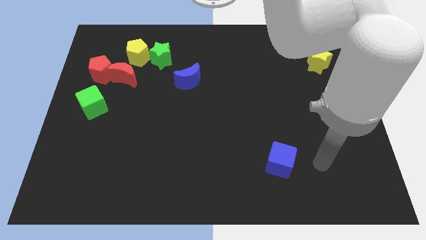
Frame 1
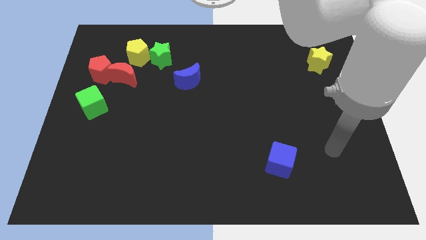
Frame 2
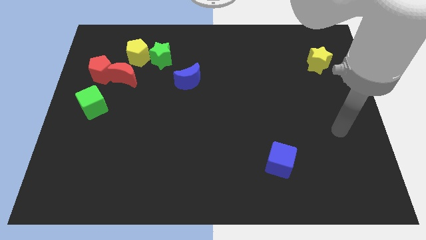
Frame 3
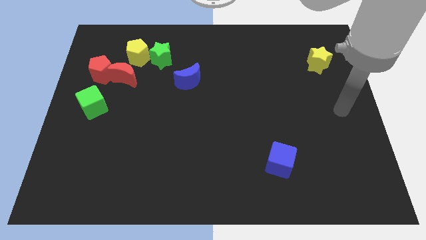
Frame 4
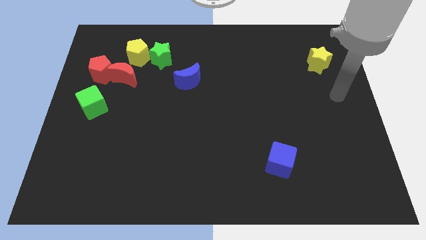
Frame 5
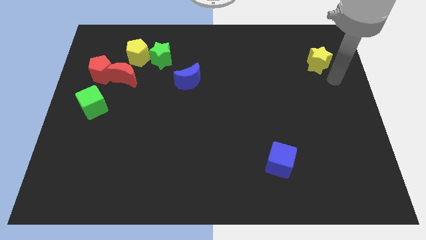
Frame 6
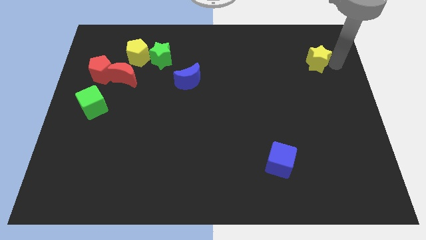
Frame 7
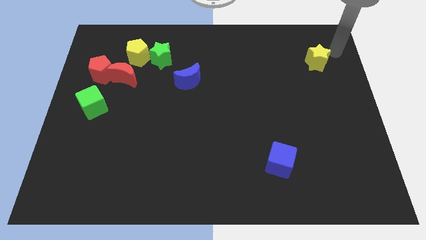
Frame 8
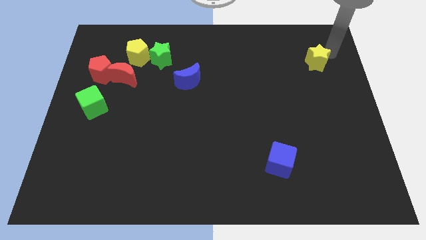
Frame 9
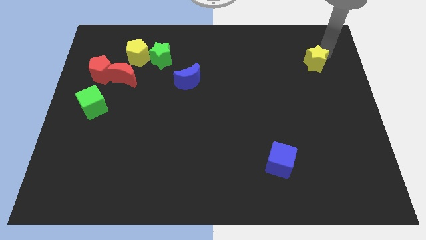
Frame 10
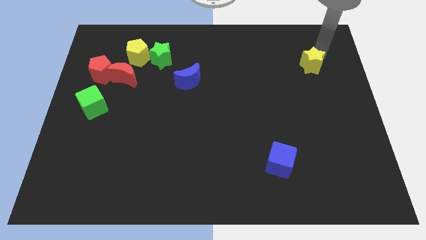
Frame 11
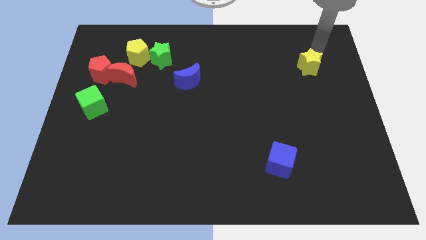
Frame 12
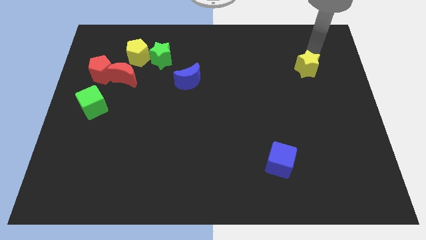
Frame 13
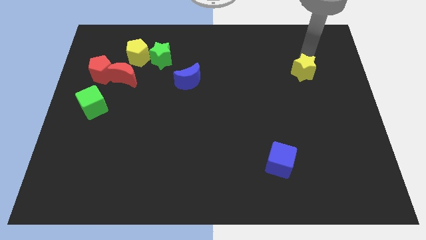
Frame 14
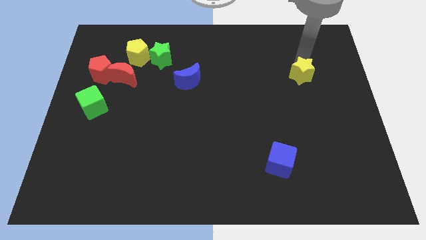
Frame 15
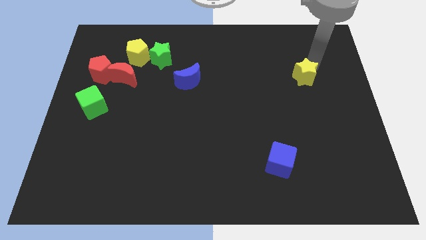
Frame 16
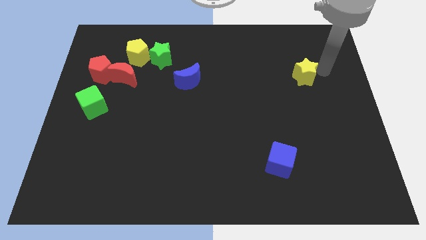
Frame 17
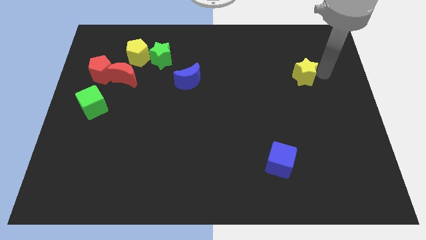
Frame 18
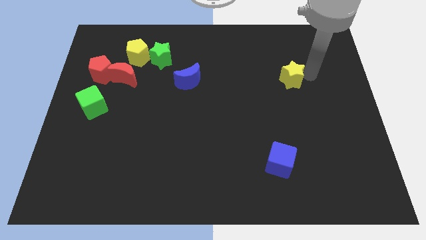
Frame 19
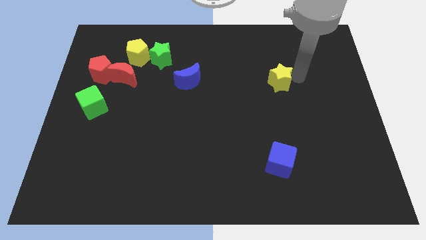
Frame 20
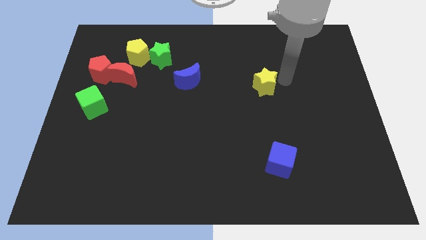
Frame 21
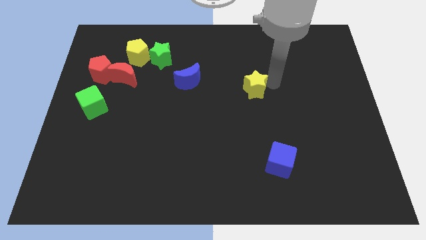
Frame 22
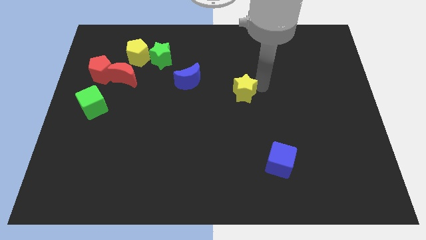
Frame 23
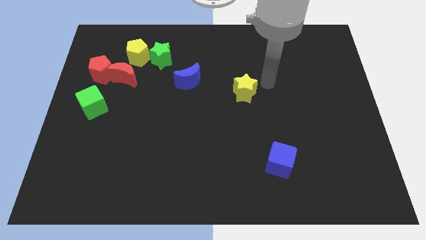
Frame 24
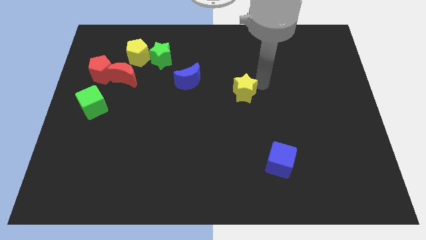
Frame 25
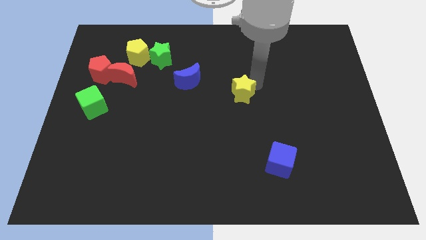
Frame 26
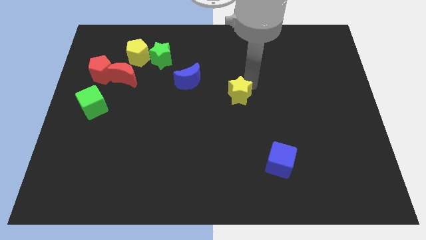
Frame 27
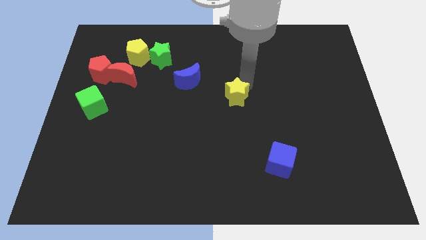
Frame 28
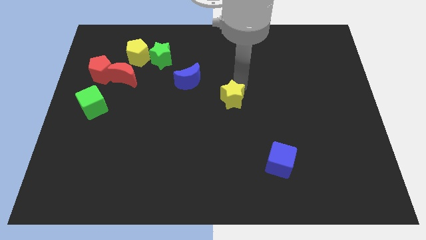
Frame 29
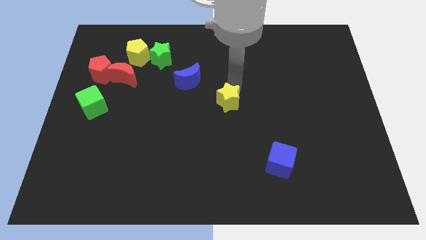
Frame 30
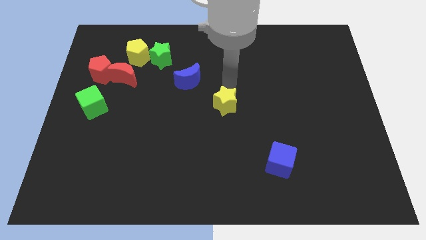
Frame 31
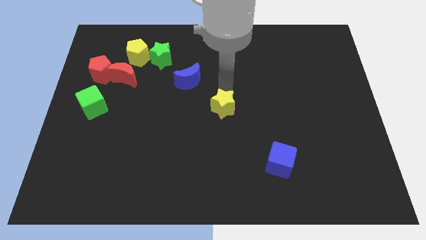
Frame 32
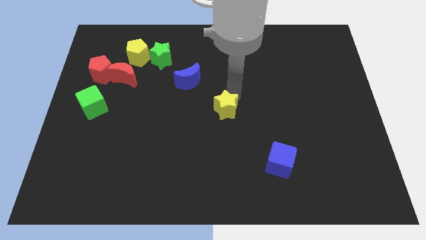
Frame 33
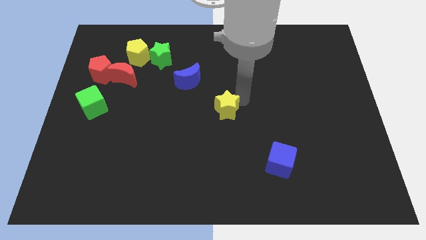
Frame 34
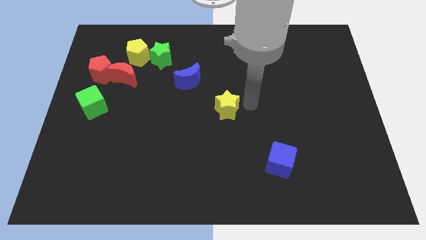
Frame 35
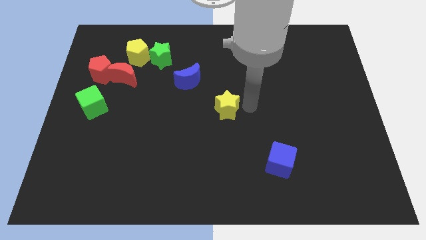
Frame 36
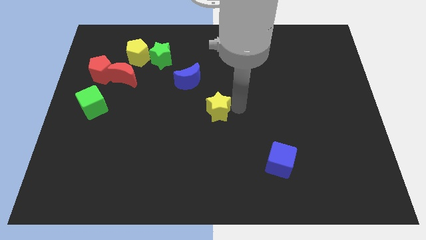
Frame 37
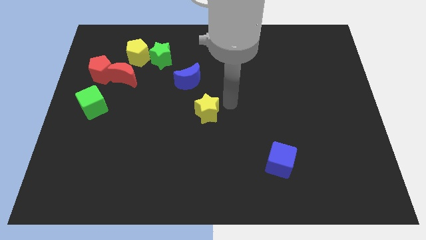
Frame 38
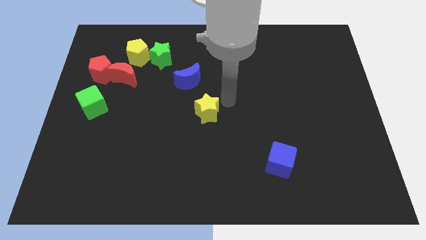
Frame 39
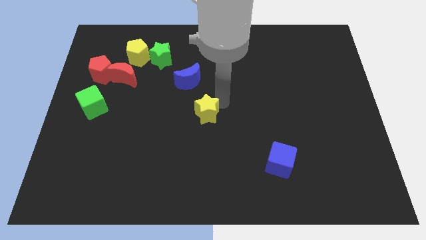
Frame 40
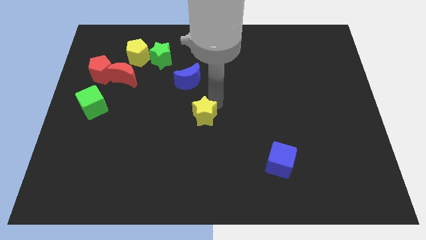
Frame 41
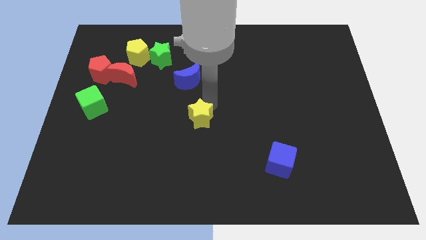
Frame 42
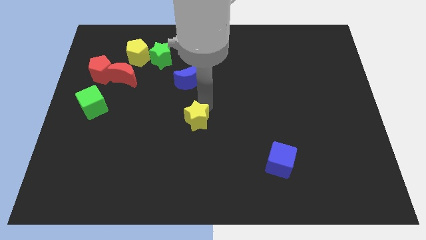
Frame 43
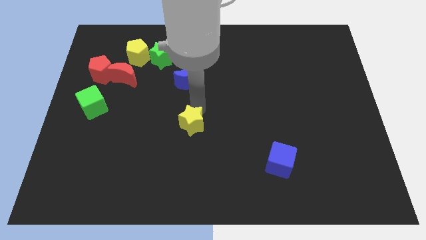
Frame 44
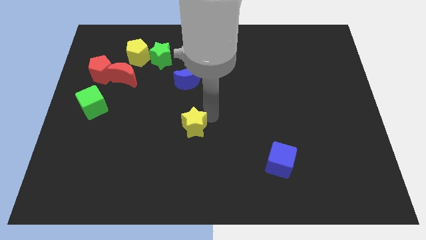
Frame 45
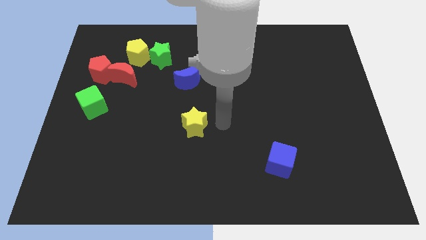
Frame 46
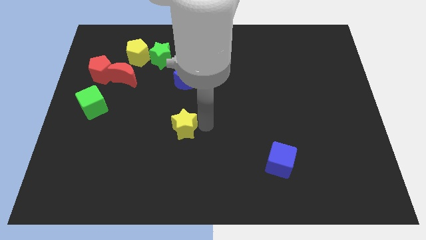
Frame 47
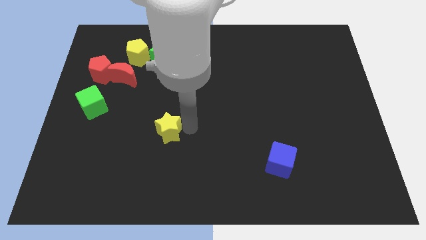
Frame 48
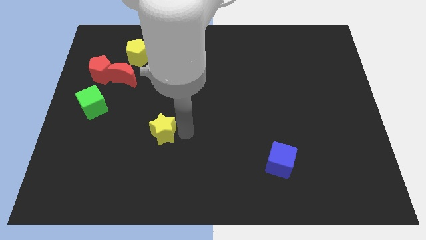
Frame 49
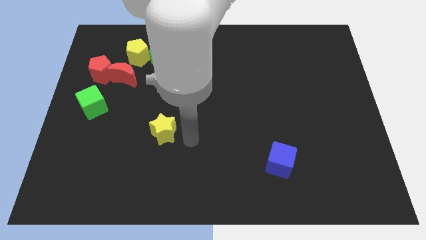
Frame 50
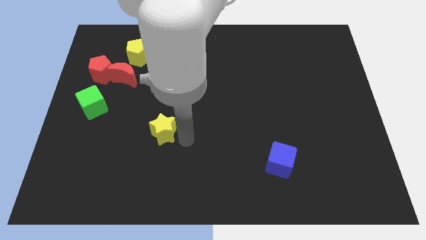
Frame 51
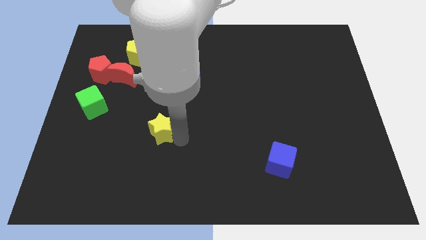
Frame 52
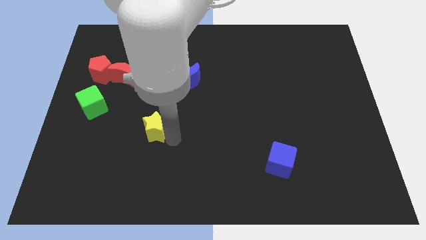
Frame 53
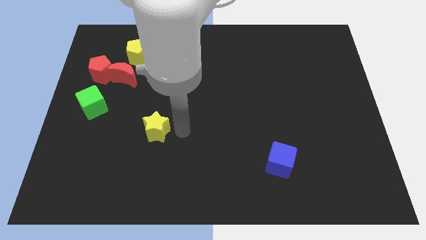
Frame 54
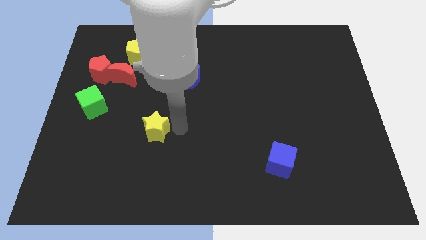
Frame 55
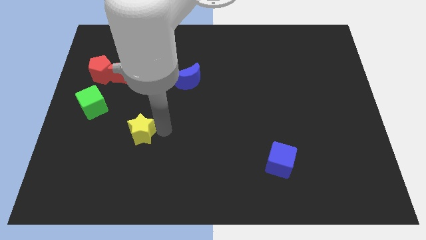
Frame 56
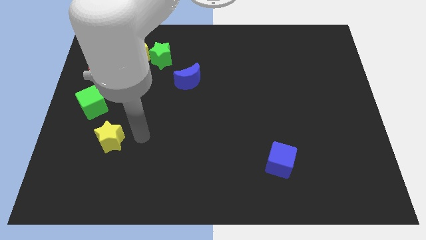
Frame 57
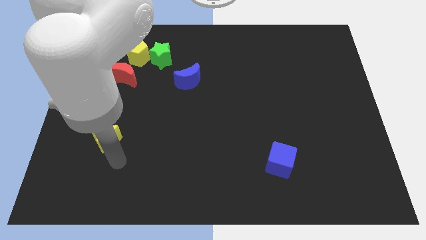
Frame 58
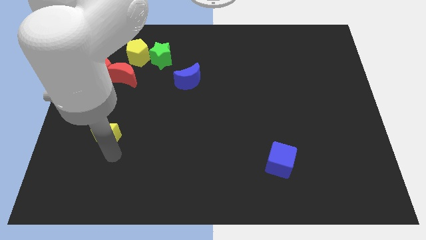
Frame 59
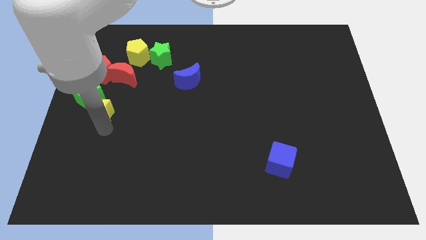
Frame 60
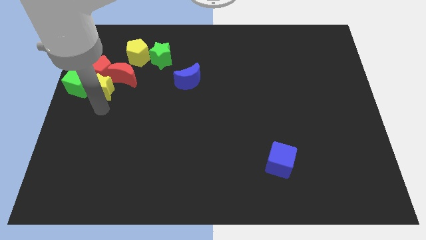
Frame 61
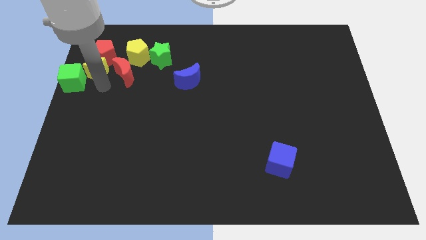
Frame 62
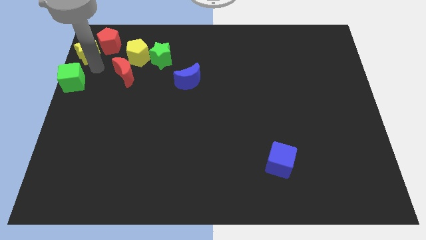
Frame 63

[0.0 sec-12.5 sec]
slide the yellow star to the top left
